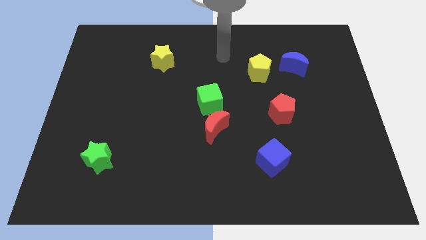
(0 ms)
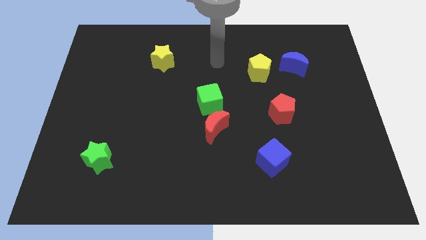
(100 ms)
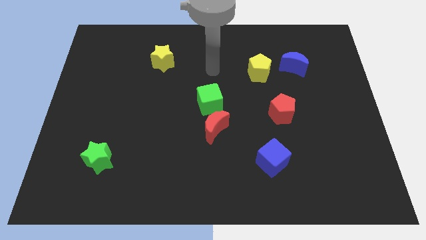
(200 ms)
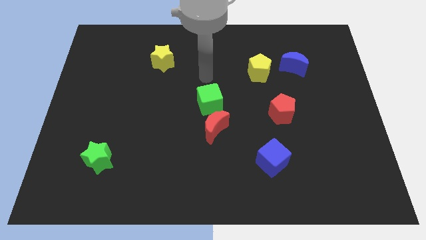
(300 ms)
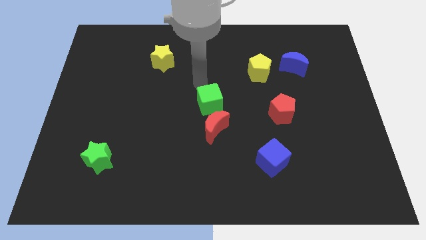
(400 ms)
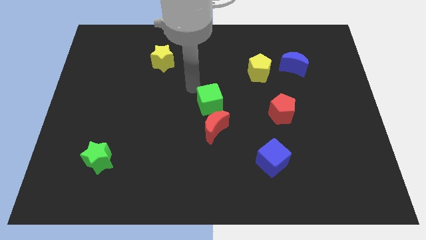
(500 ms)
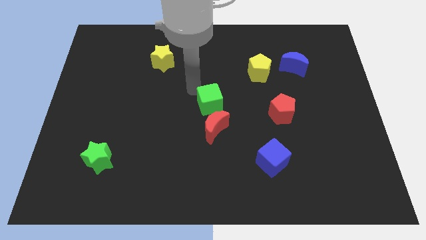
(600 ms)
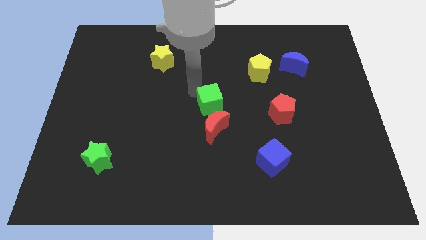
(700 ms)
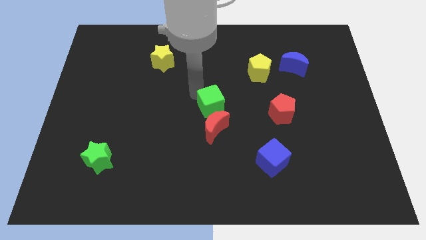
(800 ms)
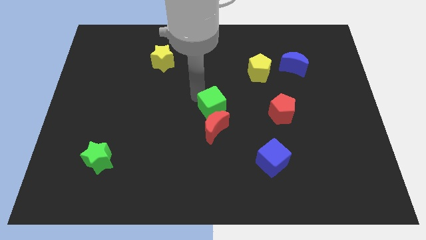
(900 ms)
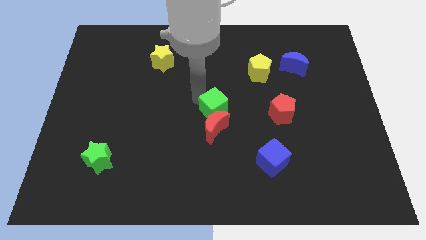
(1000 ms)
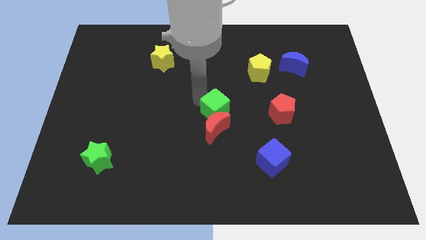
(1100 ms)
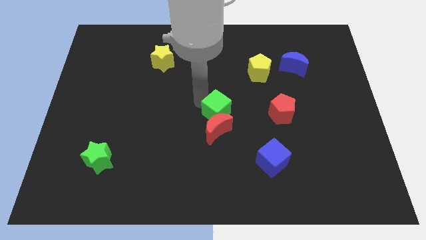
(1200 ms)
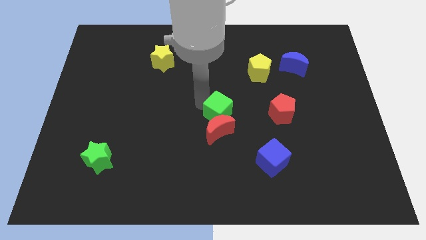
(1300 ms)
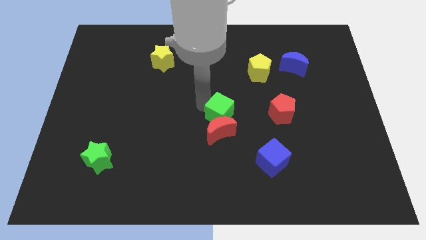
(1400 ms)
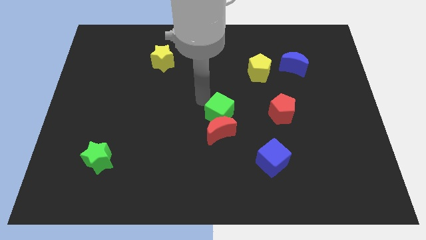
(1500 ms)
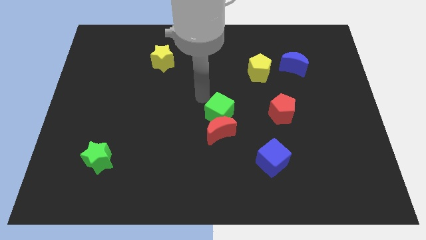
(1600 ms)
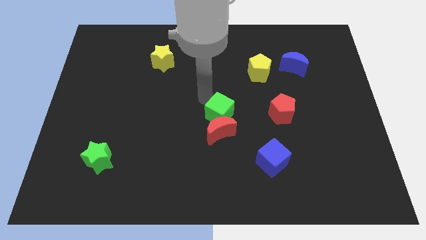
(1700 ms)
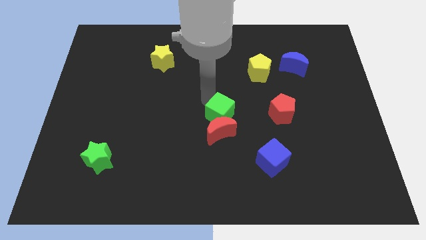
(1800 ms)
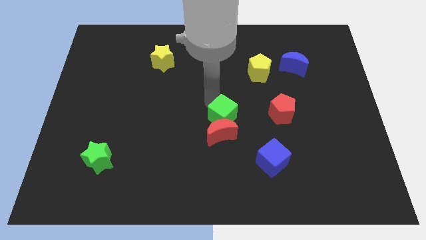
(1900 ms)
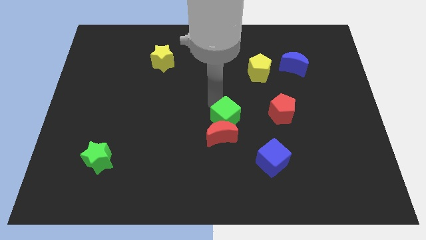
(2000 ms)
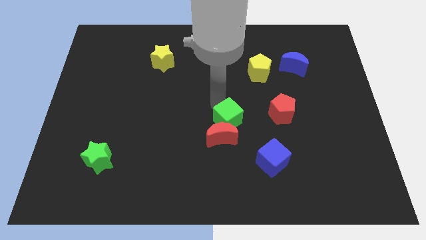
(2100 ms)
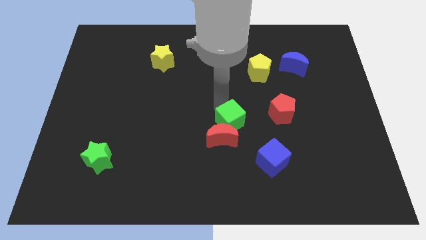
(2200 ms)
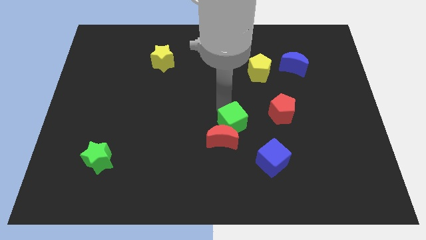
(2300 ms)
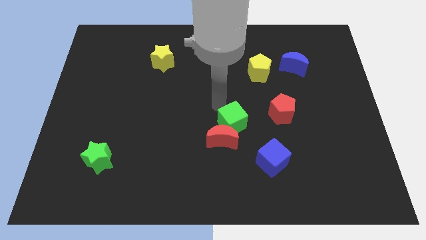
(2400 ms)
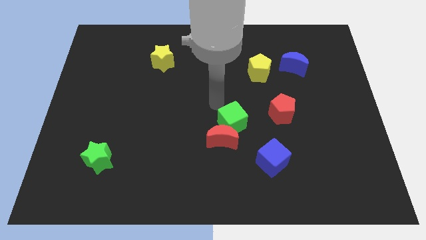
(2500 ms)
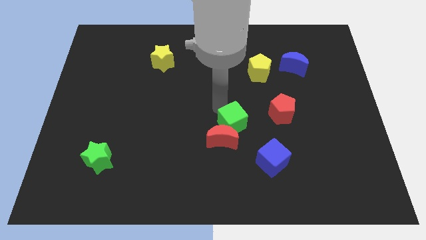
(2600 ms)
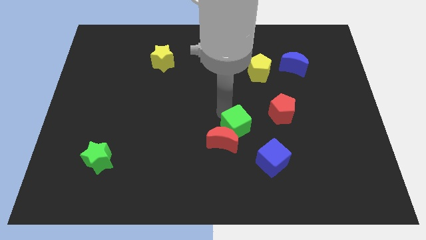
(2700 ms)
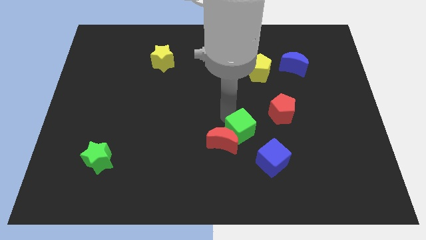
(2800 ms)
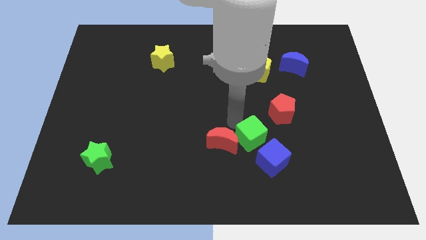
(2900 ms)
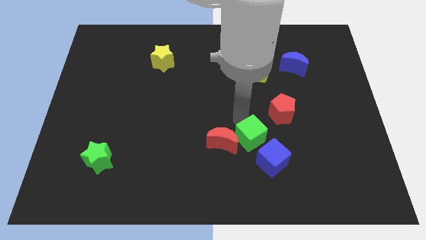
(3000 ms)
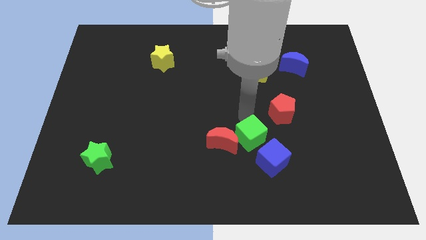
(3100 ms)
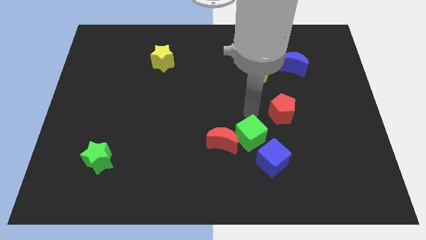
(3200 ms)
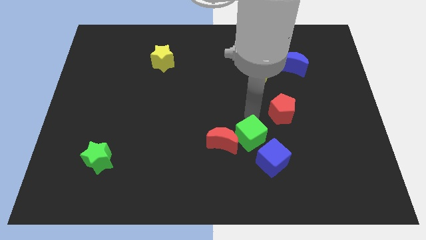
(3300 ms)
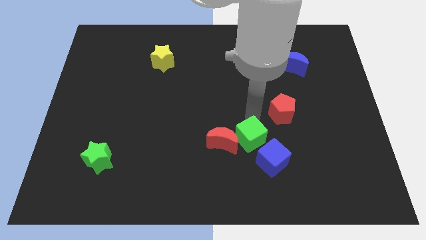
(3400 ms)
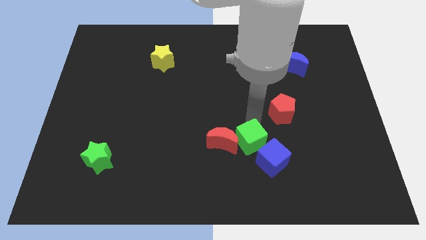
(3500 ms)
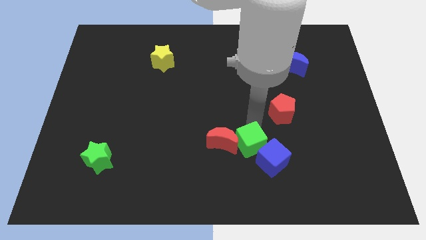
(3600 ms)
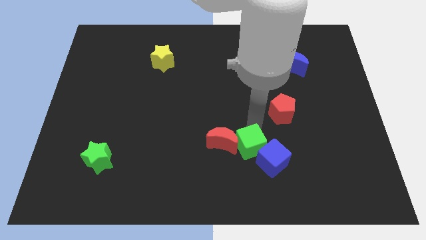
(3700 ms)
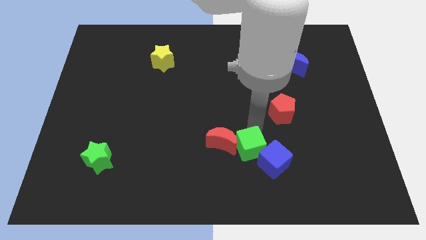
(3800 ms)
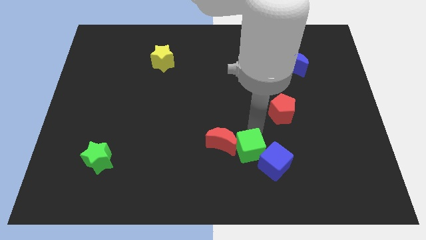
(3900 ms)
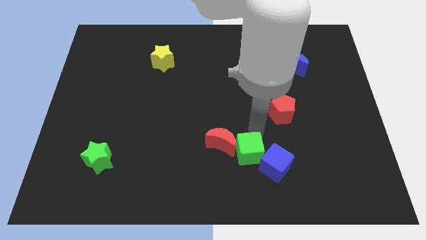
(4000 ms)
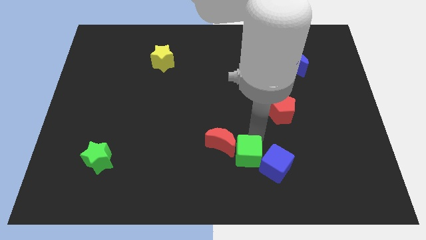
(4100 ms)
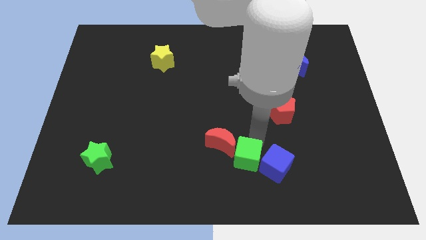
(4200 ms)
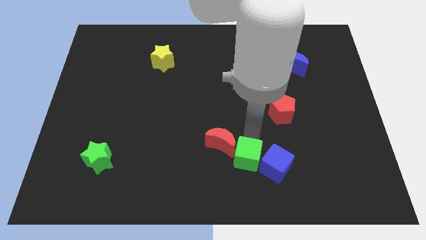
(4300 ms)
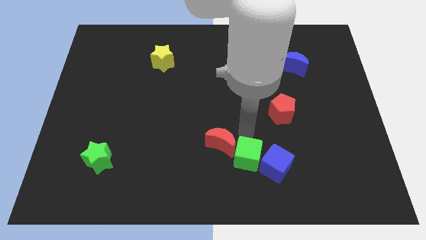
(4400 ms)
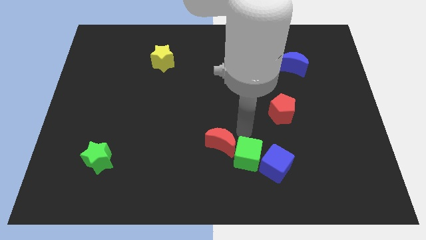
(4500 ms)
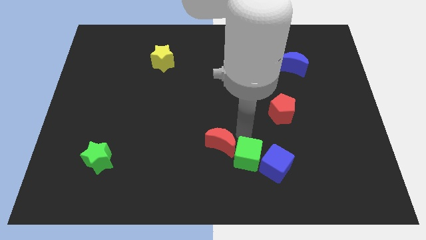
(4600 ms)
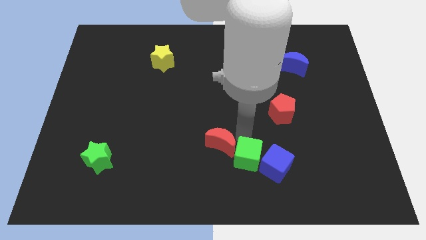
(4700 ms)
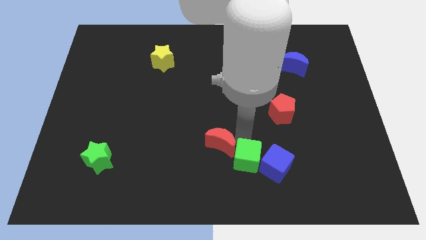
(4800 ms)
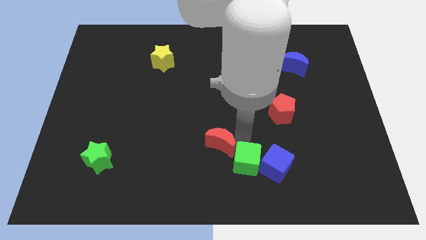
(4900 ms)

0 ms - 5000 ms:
move the green cube to the bottom left side of the blue cube

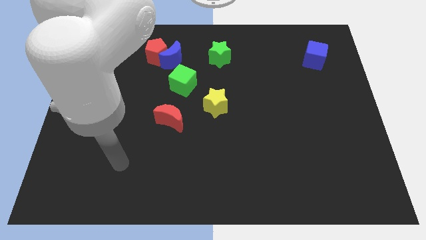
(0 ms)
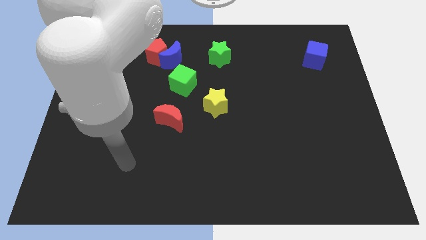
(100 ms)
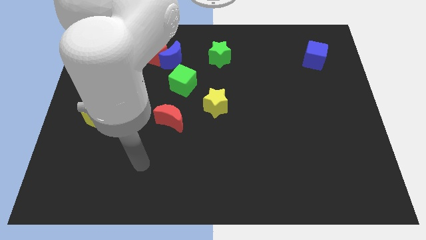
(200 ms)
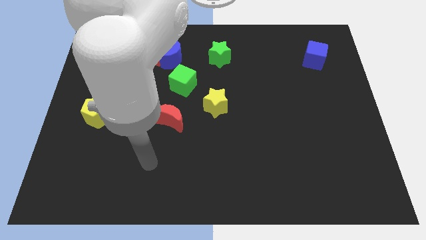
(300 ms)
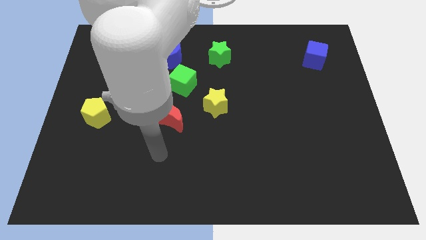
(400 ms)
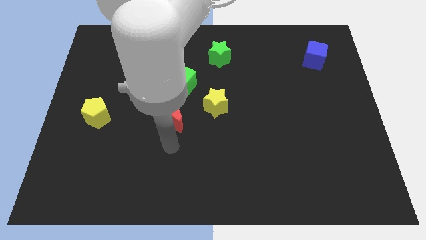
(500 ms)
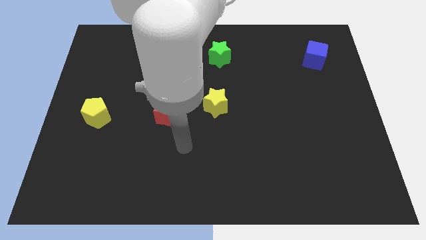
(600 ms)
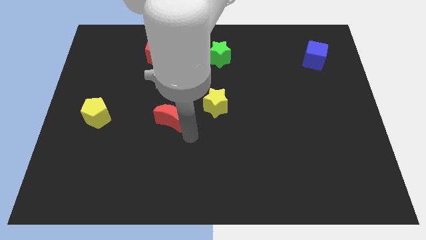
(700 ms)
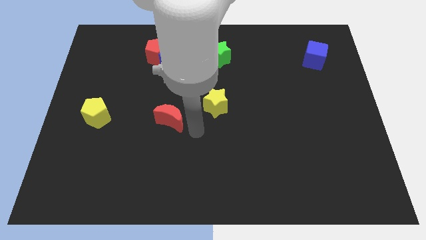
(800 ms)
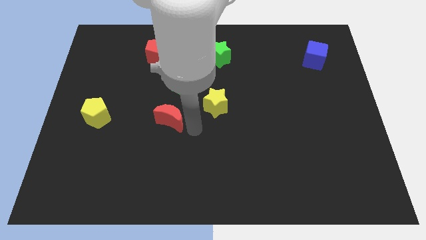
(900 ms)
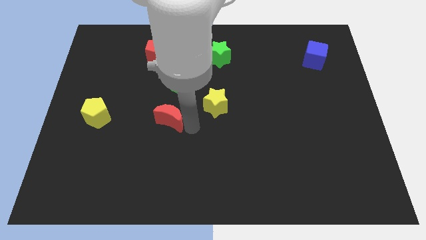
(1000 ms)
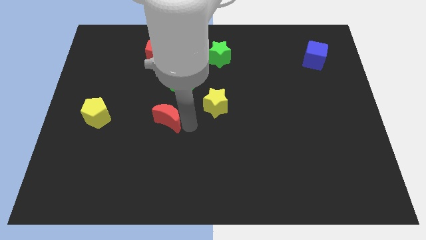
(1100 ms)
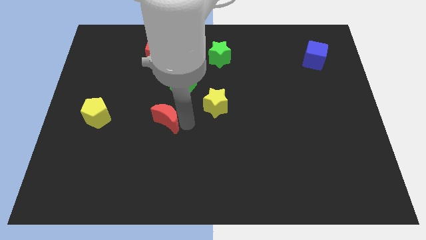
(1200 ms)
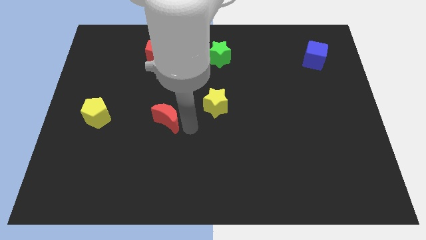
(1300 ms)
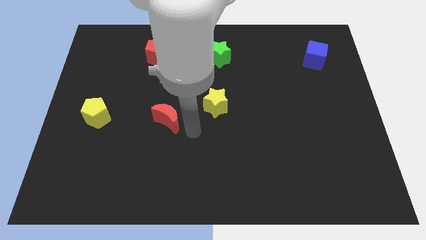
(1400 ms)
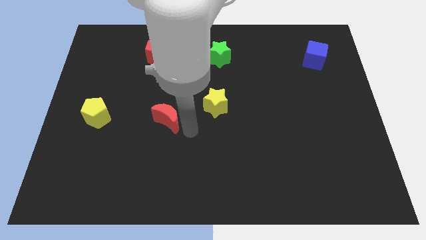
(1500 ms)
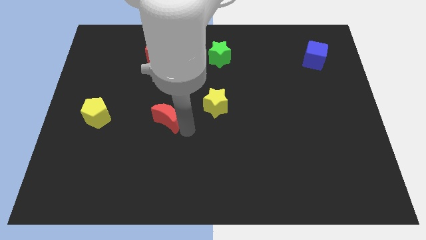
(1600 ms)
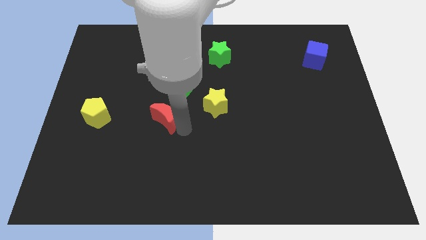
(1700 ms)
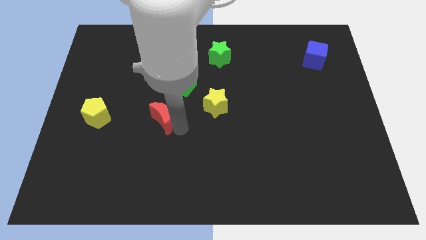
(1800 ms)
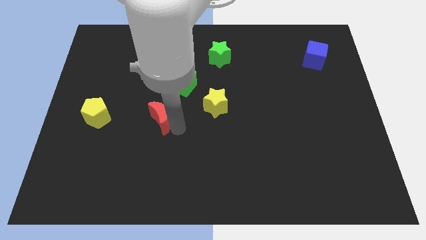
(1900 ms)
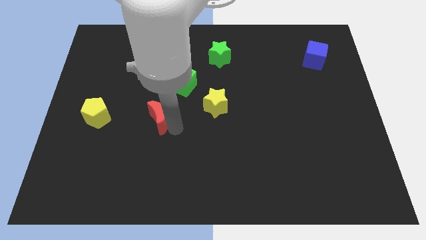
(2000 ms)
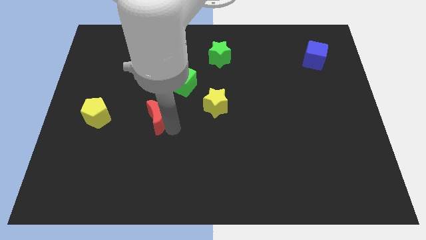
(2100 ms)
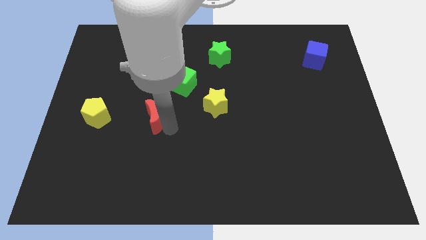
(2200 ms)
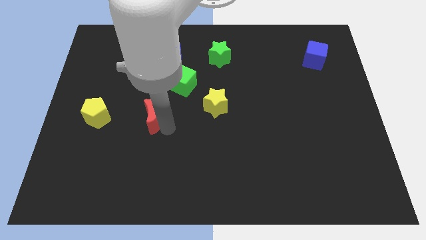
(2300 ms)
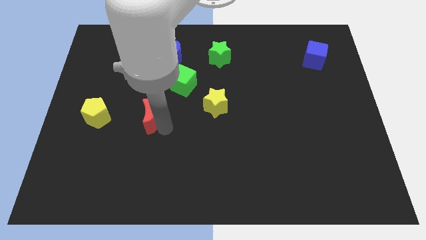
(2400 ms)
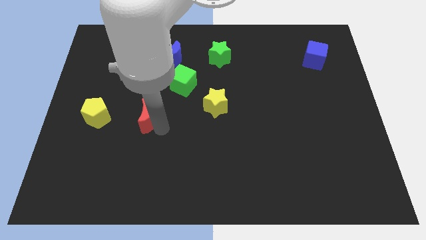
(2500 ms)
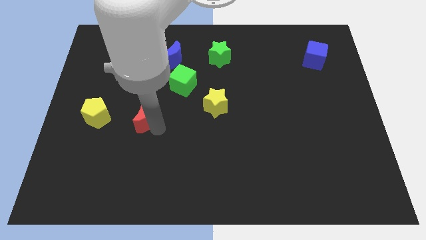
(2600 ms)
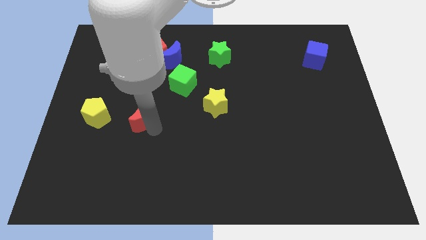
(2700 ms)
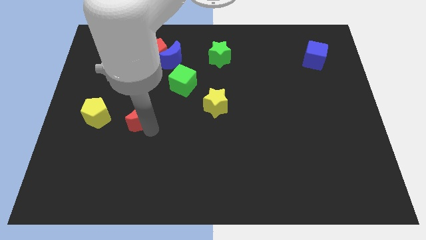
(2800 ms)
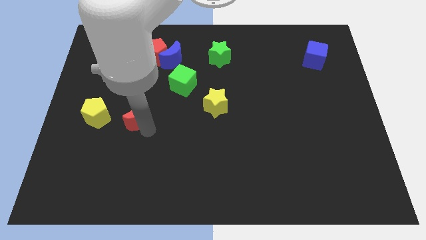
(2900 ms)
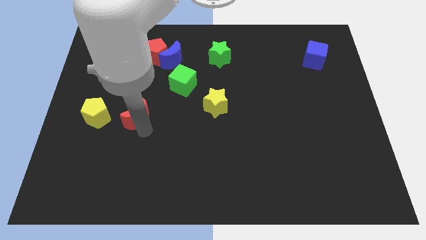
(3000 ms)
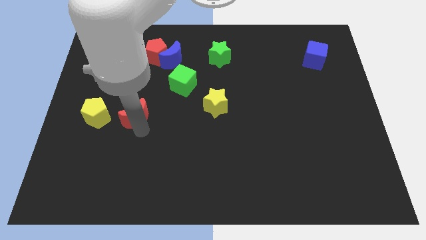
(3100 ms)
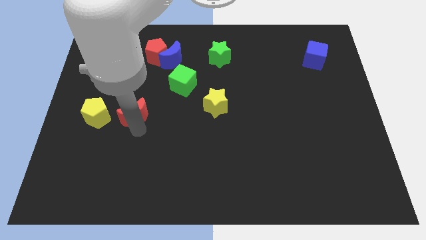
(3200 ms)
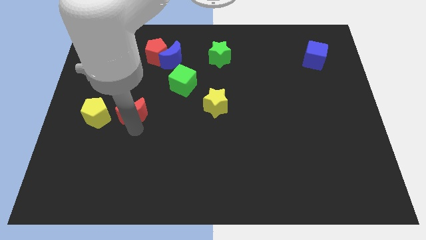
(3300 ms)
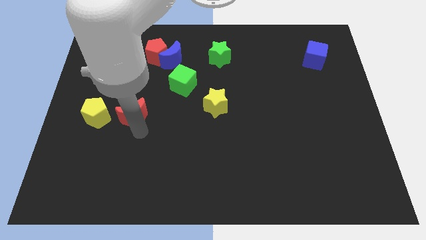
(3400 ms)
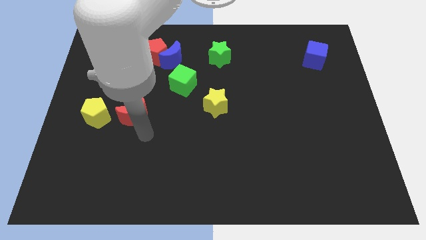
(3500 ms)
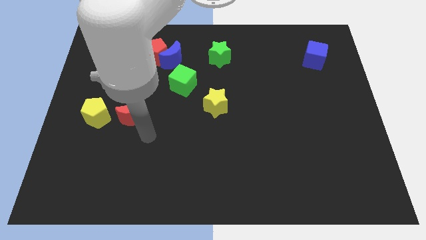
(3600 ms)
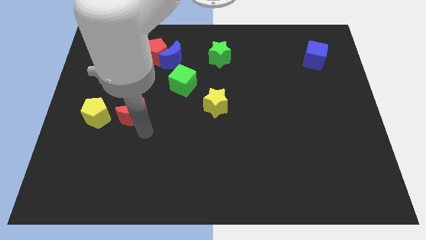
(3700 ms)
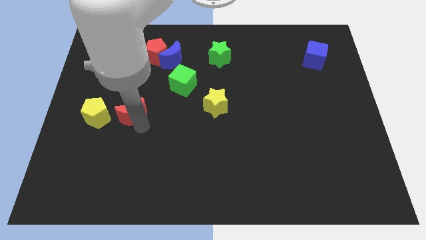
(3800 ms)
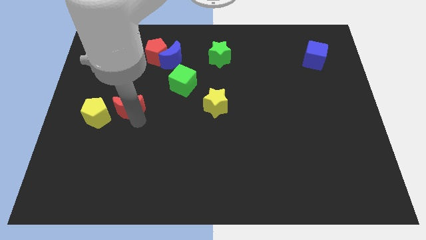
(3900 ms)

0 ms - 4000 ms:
move the red moon to the top right of the yellow pentagon
